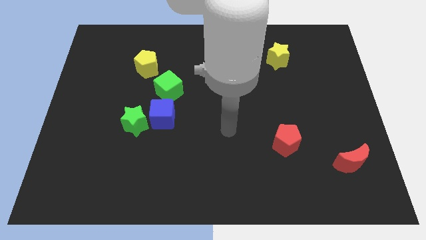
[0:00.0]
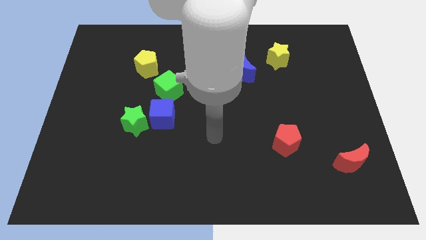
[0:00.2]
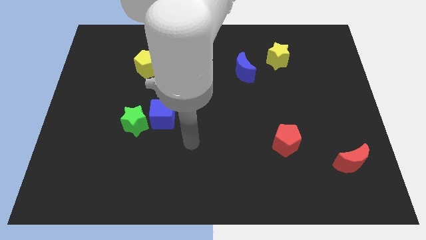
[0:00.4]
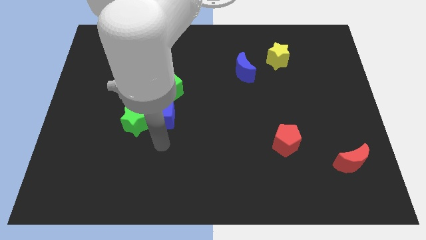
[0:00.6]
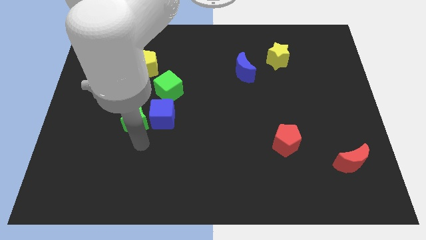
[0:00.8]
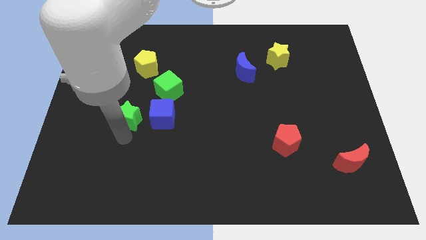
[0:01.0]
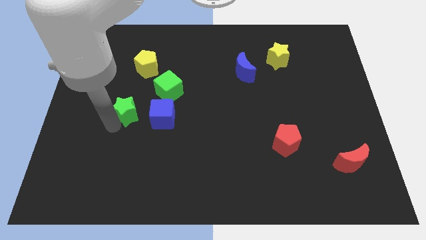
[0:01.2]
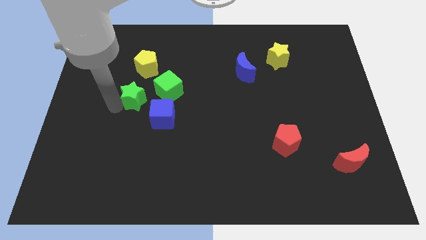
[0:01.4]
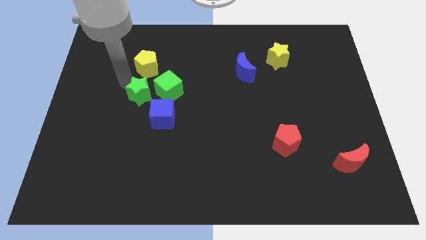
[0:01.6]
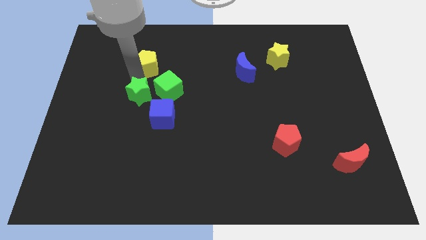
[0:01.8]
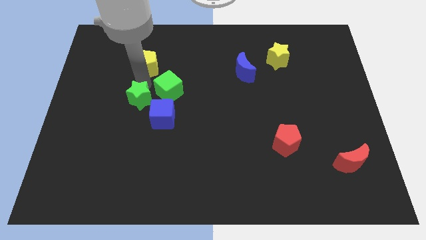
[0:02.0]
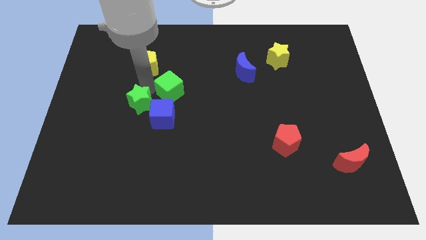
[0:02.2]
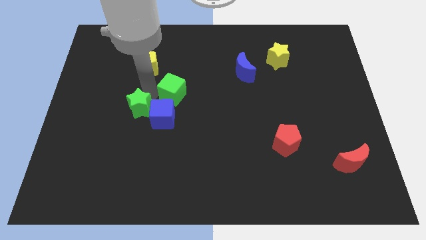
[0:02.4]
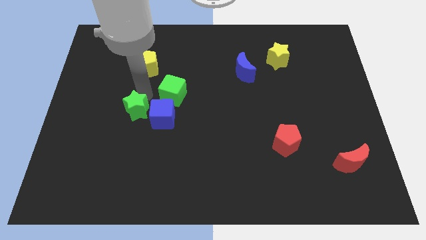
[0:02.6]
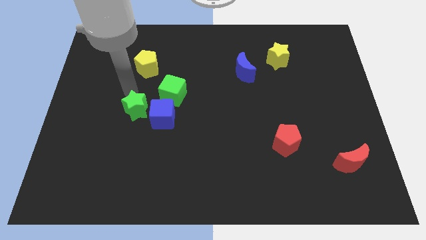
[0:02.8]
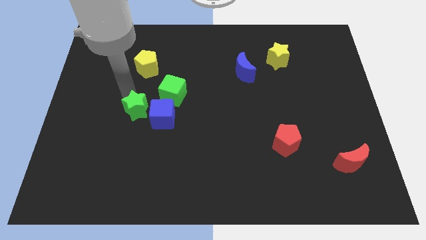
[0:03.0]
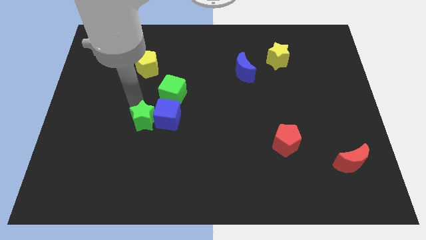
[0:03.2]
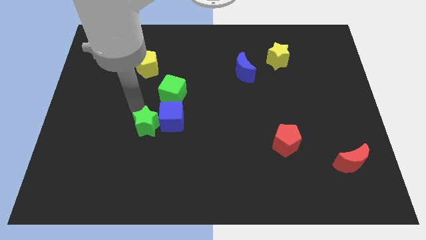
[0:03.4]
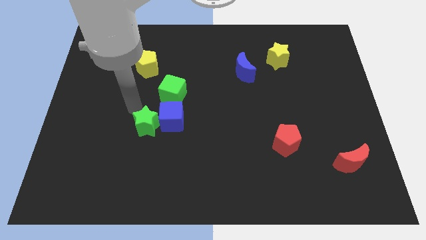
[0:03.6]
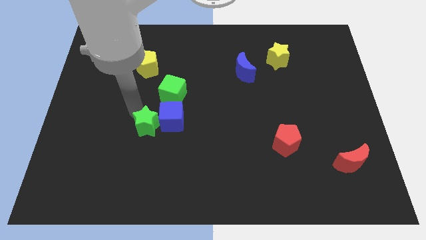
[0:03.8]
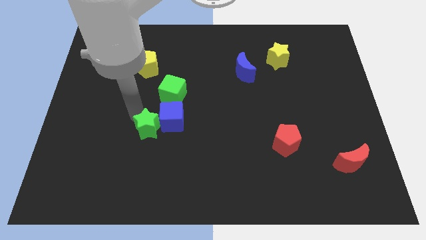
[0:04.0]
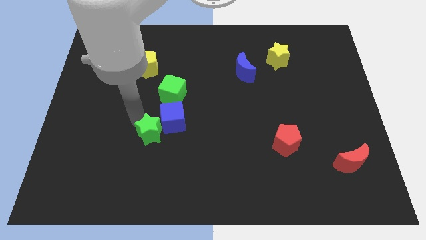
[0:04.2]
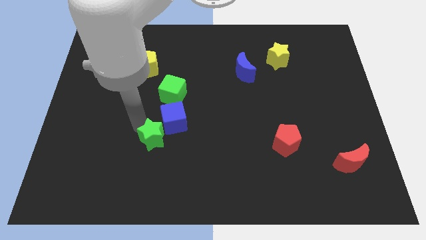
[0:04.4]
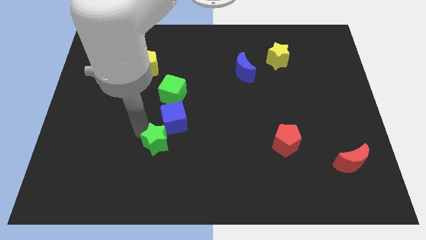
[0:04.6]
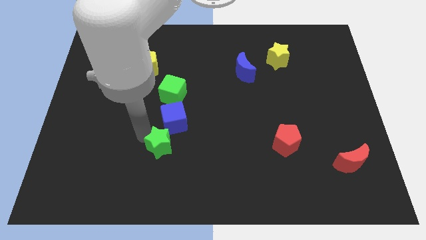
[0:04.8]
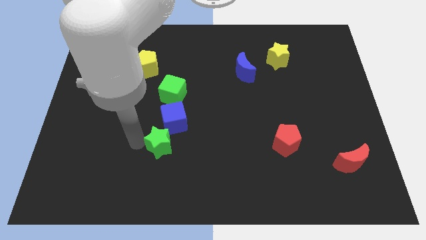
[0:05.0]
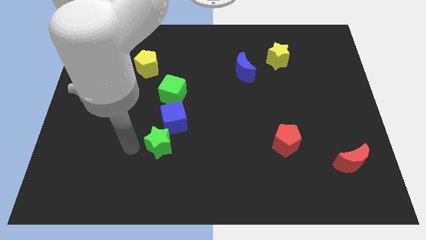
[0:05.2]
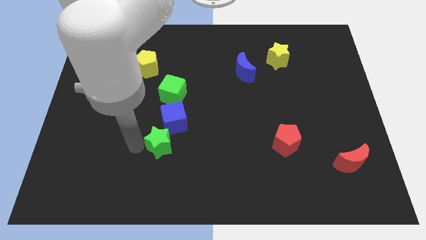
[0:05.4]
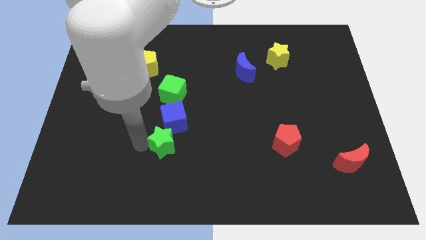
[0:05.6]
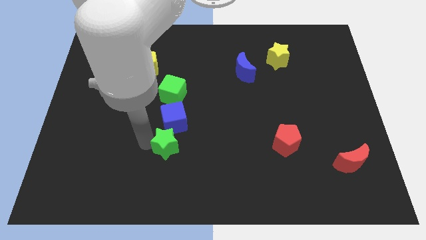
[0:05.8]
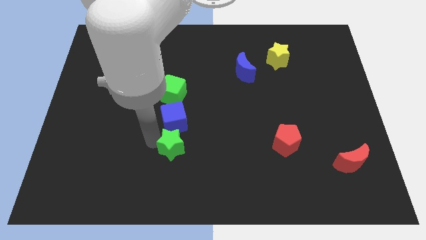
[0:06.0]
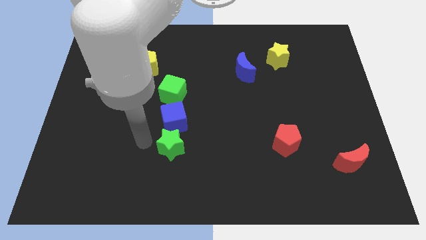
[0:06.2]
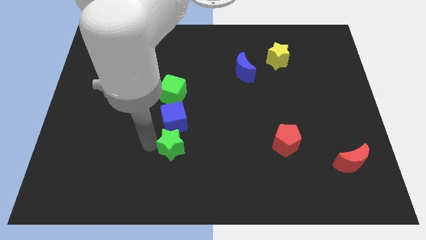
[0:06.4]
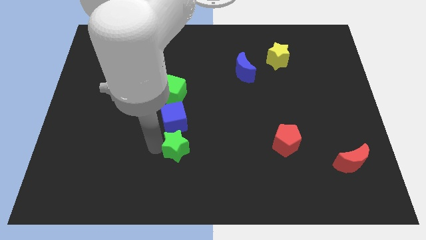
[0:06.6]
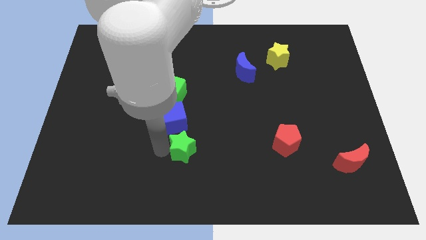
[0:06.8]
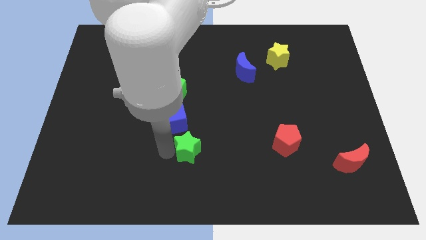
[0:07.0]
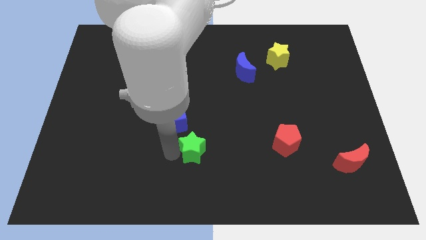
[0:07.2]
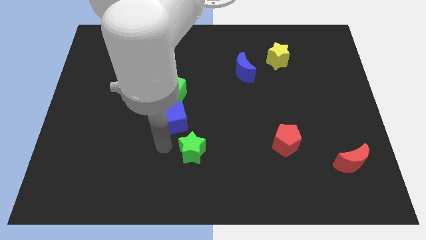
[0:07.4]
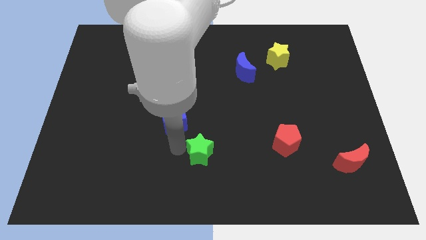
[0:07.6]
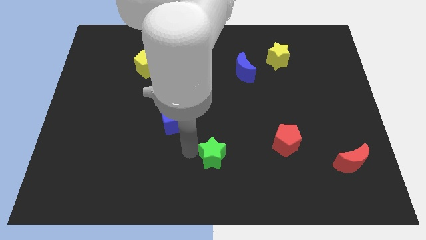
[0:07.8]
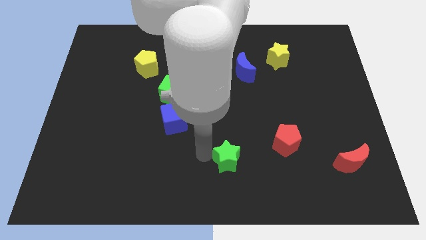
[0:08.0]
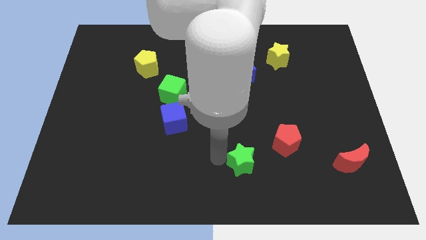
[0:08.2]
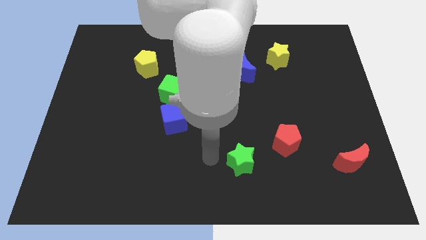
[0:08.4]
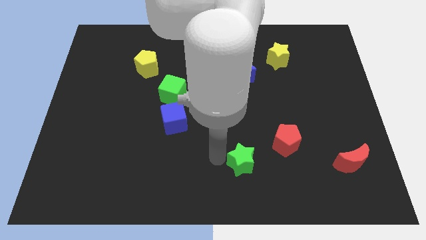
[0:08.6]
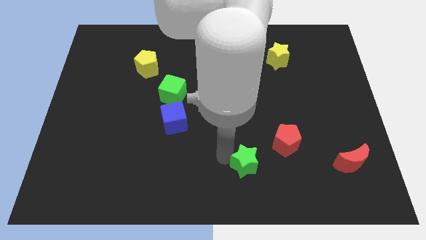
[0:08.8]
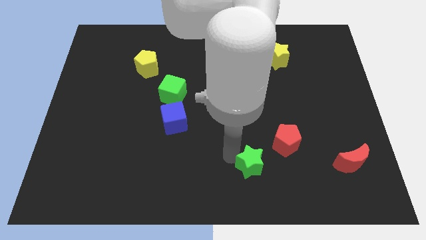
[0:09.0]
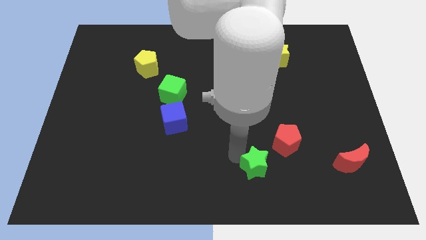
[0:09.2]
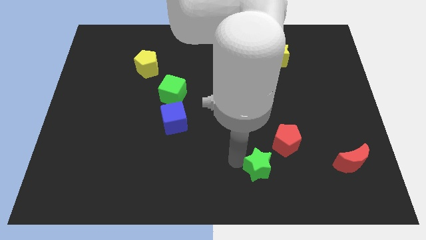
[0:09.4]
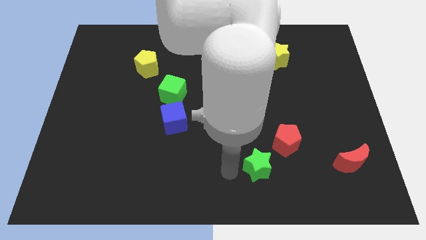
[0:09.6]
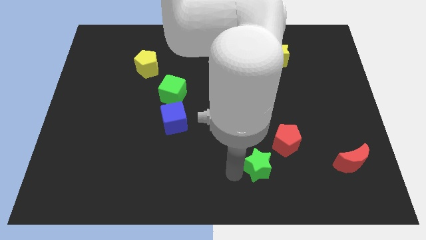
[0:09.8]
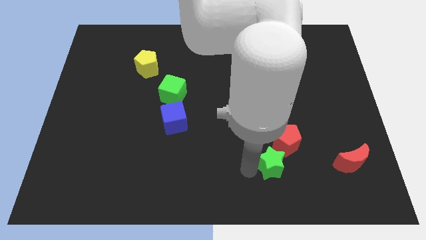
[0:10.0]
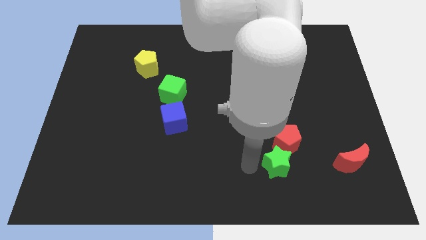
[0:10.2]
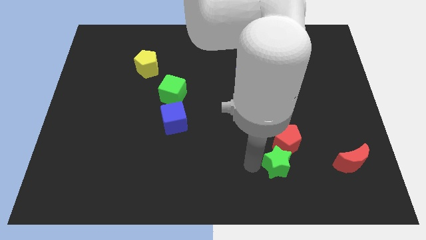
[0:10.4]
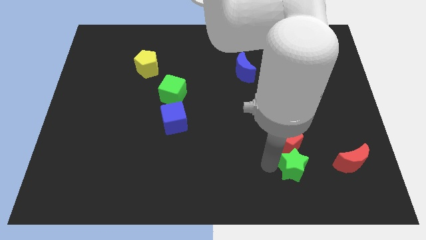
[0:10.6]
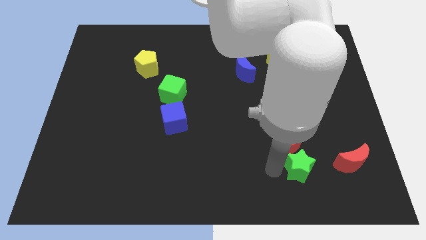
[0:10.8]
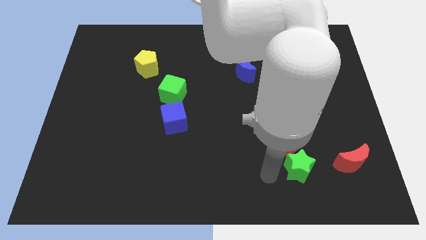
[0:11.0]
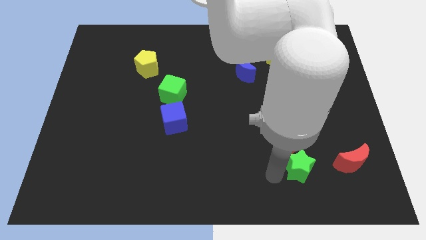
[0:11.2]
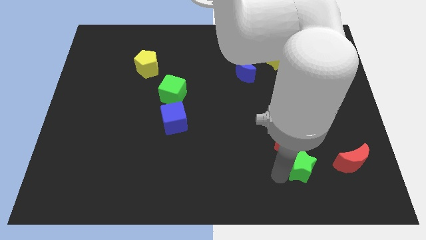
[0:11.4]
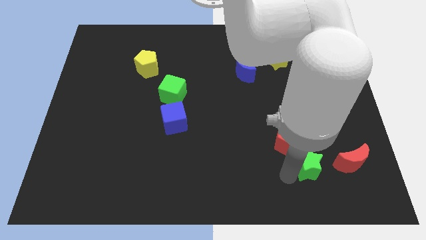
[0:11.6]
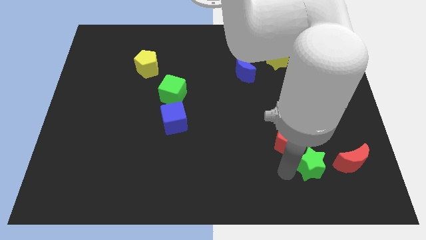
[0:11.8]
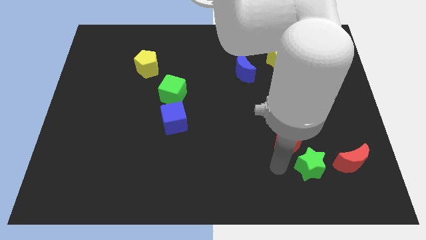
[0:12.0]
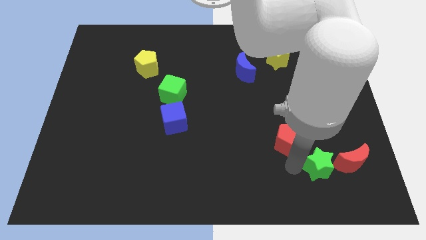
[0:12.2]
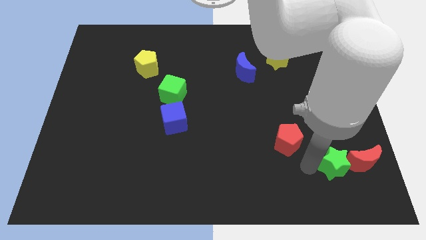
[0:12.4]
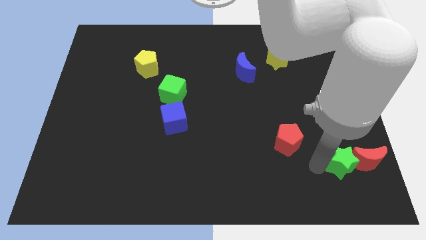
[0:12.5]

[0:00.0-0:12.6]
push the green star towards the red moon

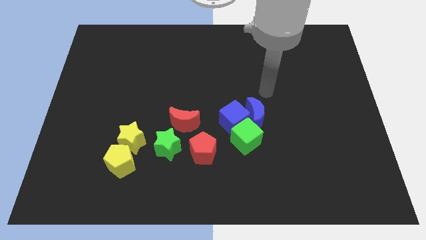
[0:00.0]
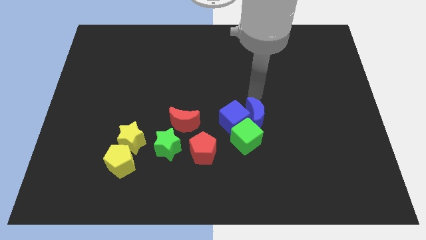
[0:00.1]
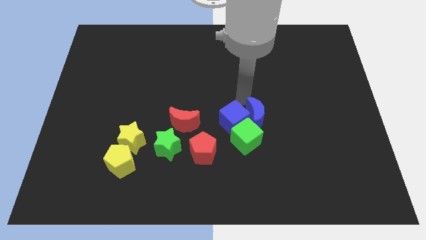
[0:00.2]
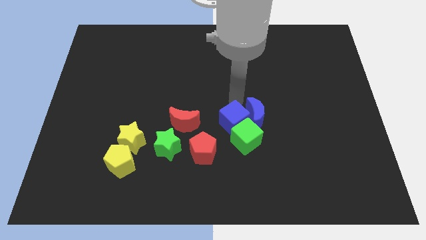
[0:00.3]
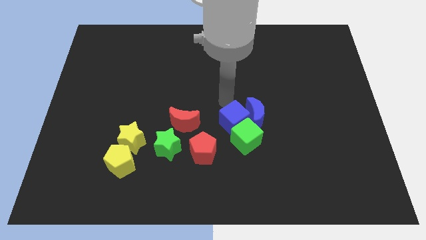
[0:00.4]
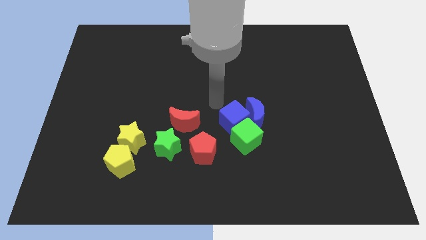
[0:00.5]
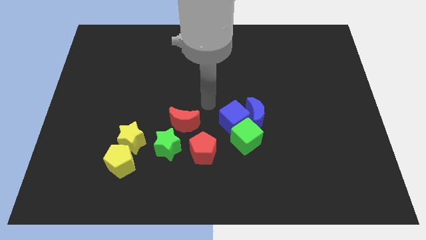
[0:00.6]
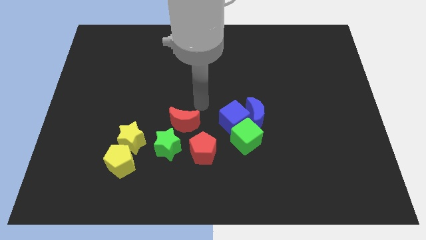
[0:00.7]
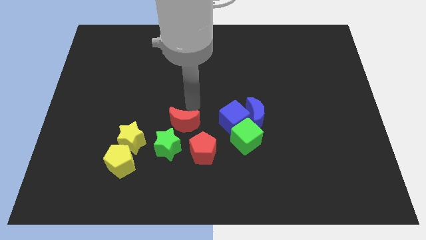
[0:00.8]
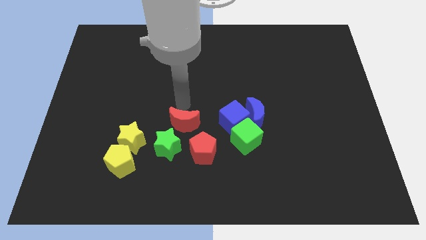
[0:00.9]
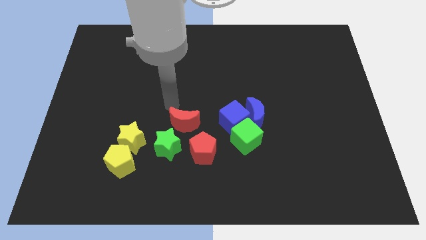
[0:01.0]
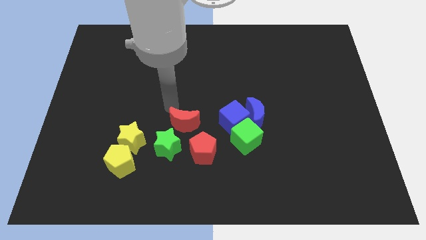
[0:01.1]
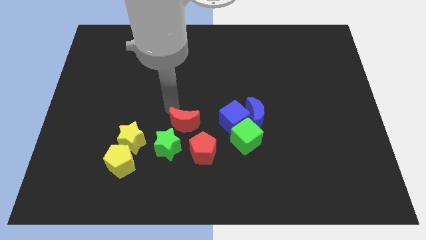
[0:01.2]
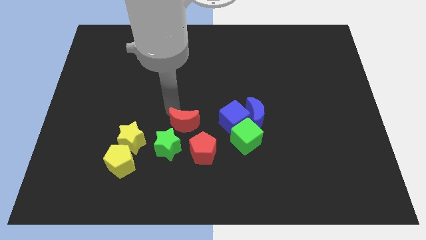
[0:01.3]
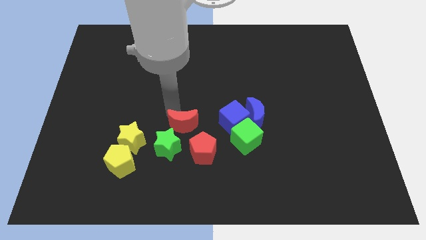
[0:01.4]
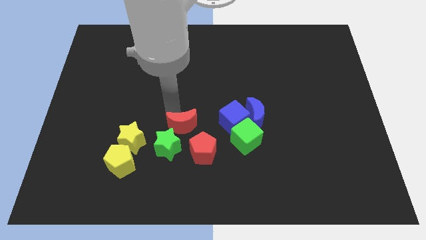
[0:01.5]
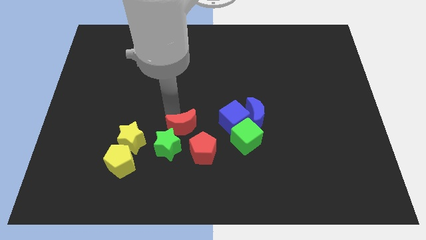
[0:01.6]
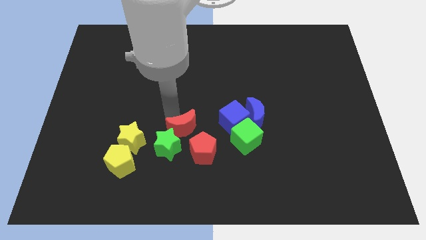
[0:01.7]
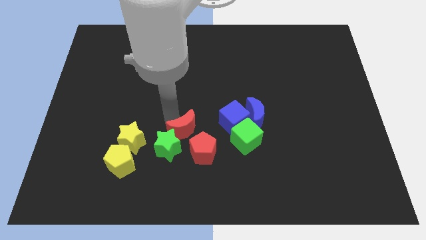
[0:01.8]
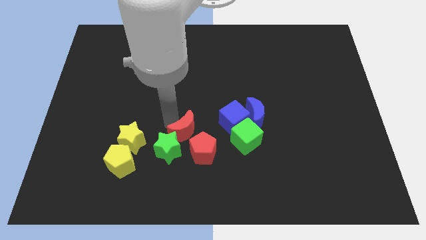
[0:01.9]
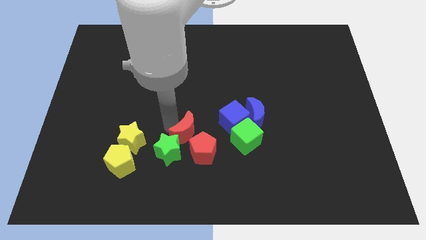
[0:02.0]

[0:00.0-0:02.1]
push the red moon close to the red pentagon
